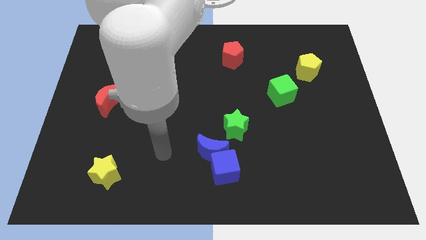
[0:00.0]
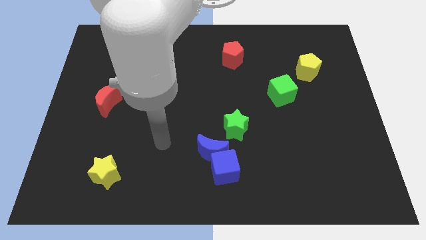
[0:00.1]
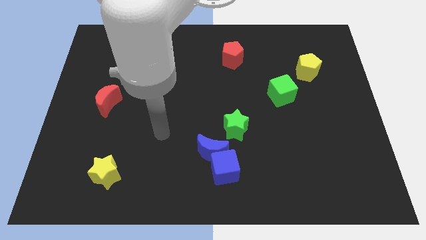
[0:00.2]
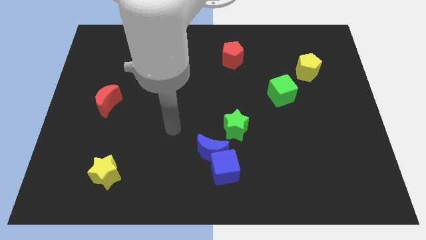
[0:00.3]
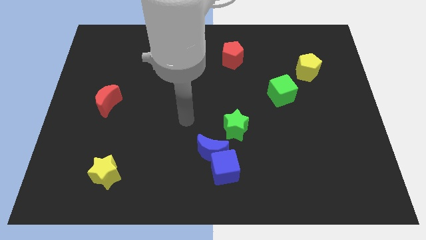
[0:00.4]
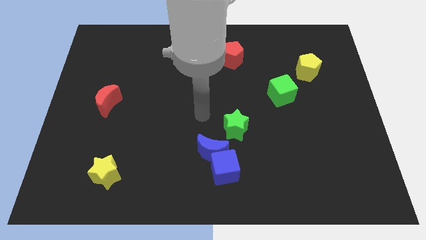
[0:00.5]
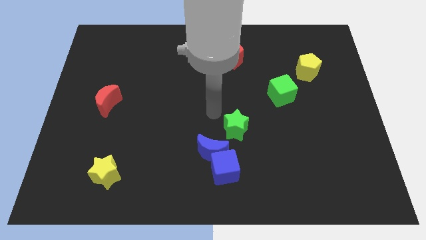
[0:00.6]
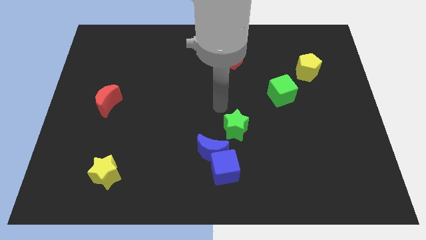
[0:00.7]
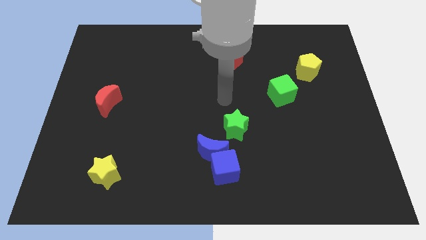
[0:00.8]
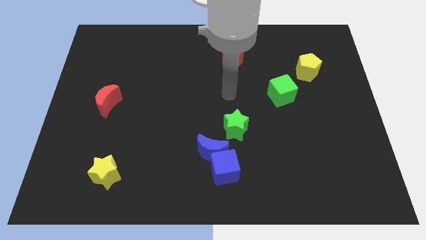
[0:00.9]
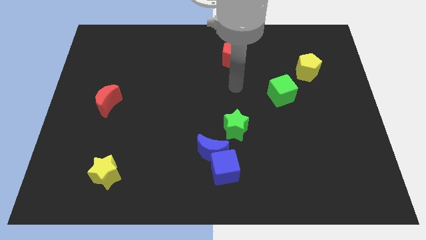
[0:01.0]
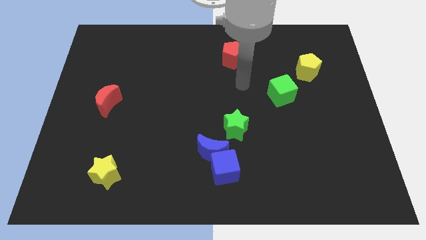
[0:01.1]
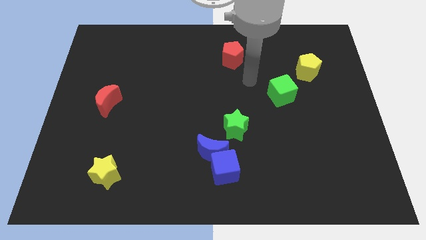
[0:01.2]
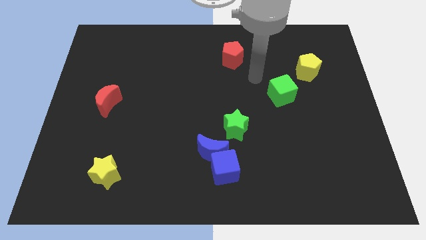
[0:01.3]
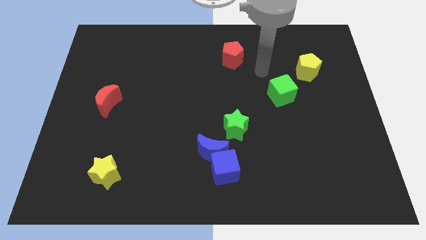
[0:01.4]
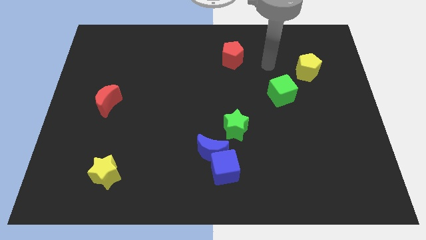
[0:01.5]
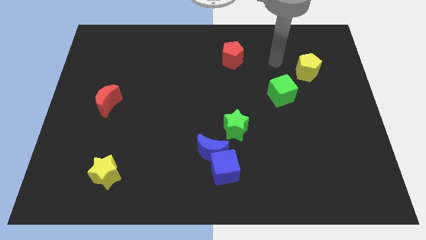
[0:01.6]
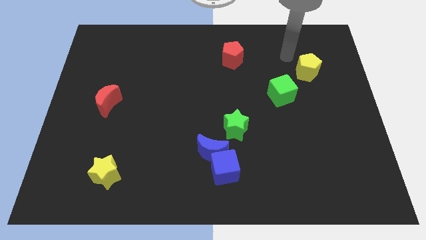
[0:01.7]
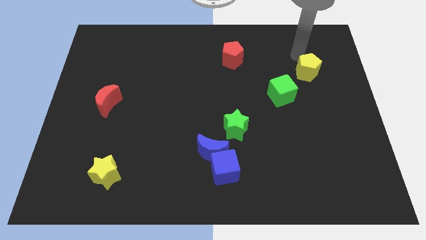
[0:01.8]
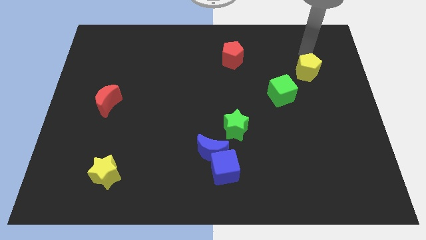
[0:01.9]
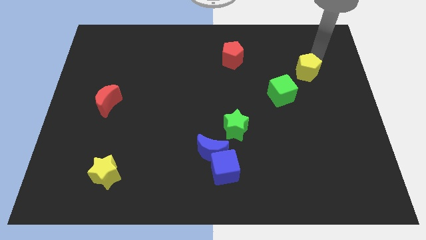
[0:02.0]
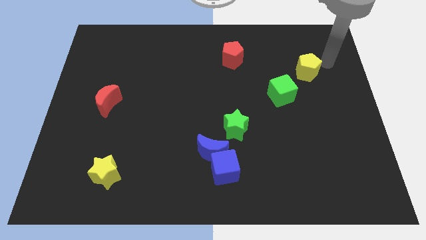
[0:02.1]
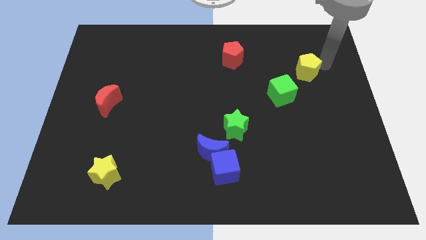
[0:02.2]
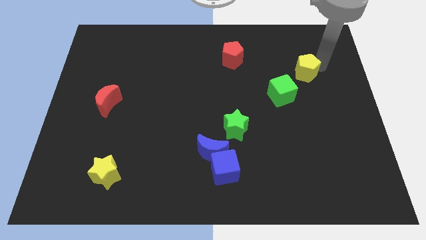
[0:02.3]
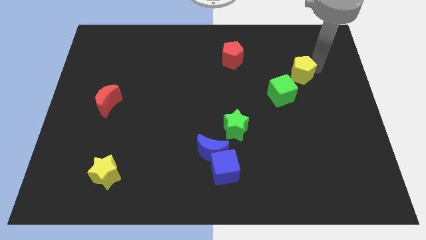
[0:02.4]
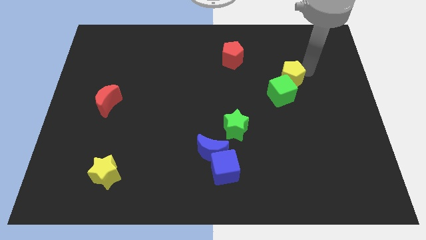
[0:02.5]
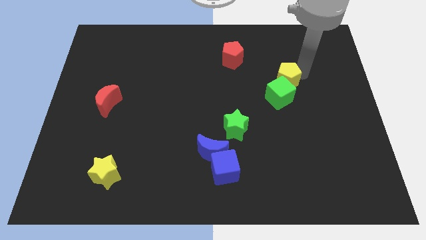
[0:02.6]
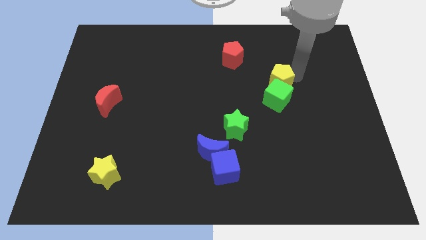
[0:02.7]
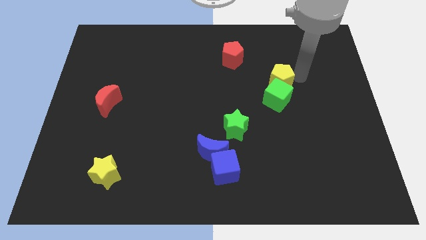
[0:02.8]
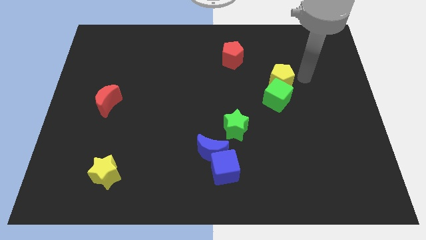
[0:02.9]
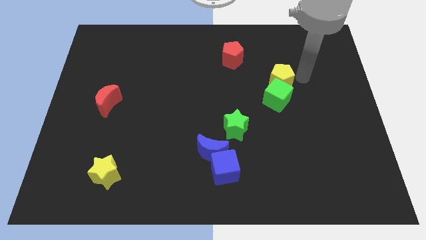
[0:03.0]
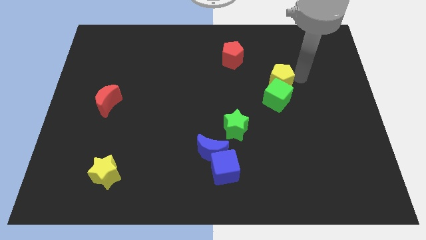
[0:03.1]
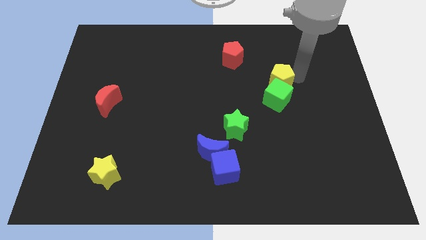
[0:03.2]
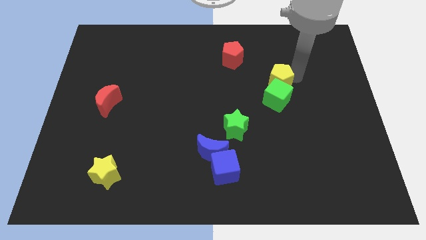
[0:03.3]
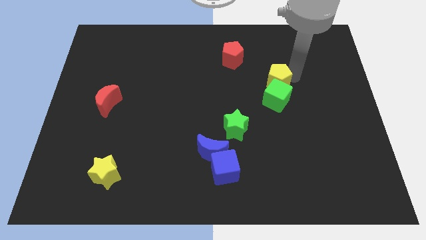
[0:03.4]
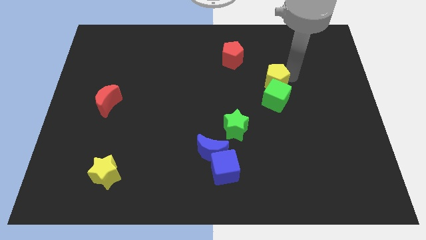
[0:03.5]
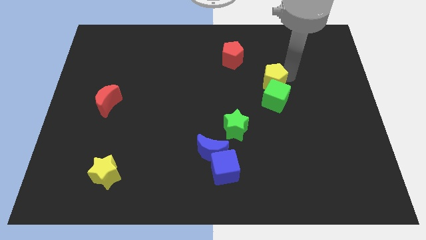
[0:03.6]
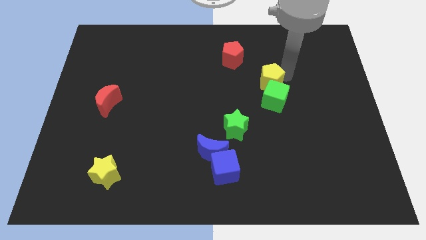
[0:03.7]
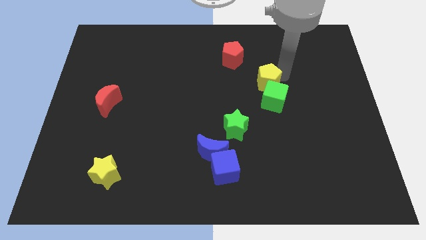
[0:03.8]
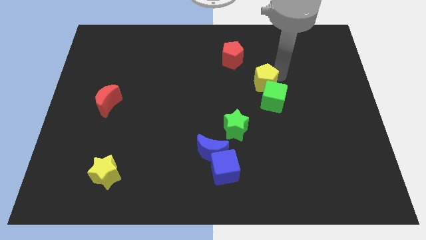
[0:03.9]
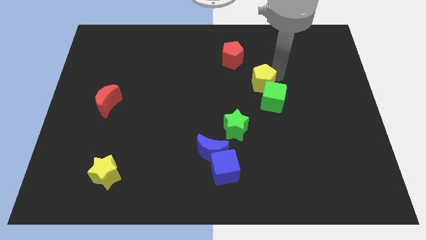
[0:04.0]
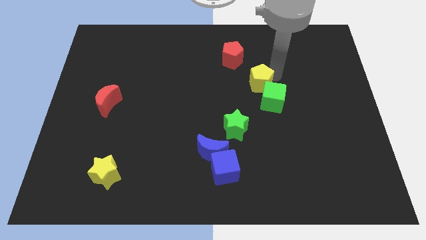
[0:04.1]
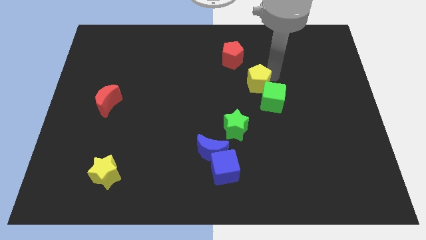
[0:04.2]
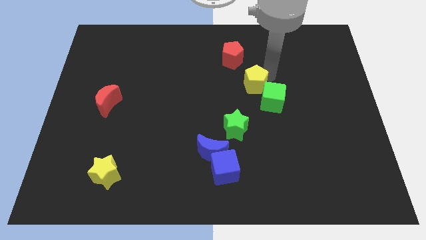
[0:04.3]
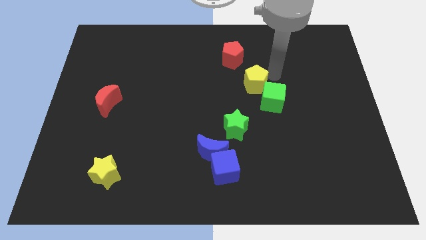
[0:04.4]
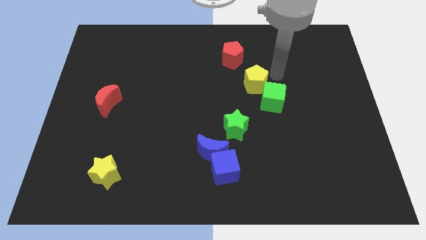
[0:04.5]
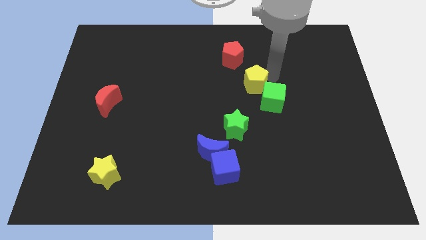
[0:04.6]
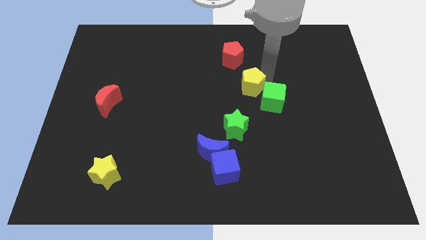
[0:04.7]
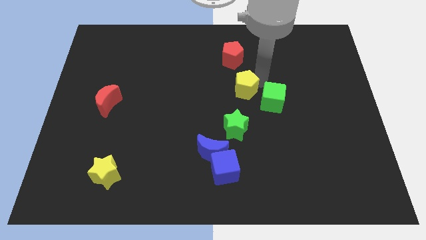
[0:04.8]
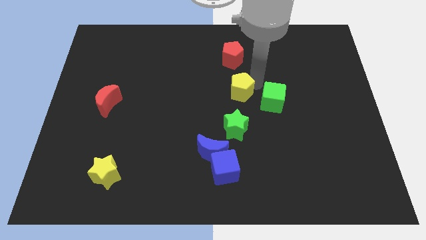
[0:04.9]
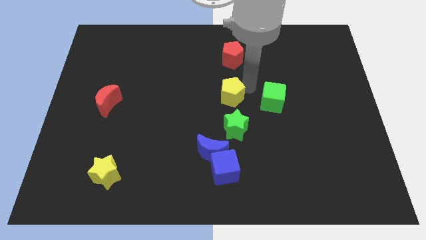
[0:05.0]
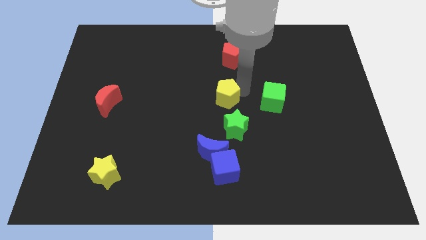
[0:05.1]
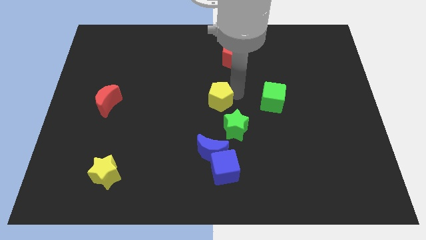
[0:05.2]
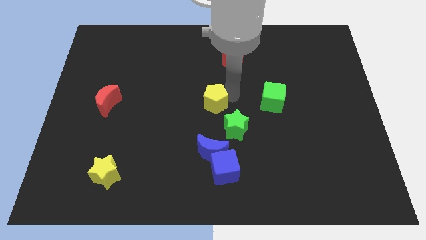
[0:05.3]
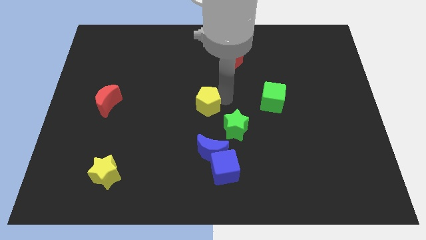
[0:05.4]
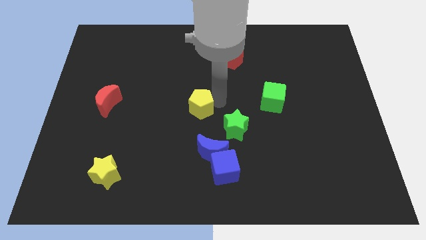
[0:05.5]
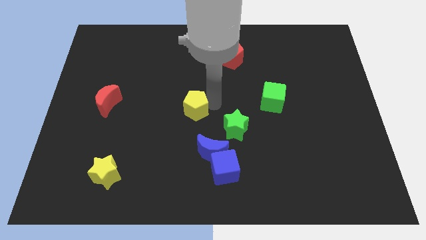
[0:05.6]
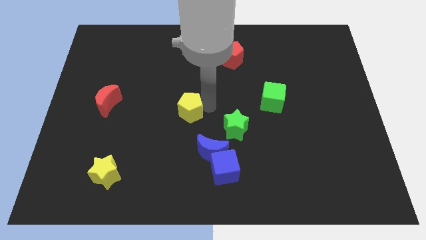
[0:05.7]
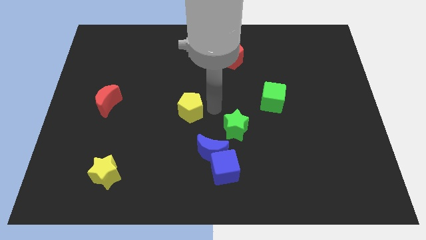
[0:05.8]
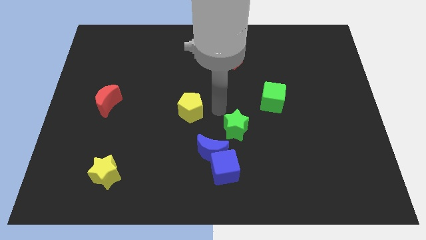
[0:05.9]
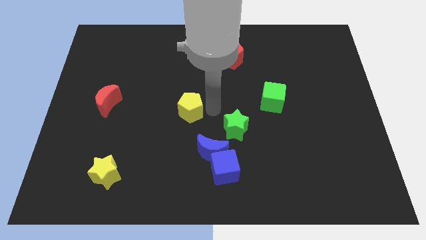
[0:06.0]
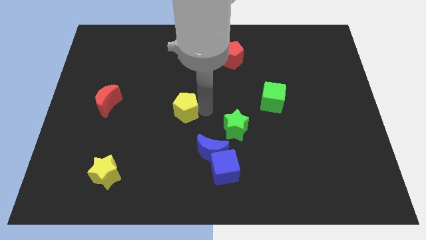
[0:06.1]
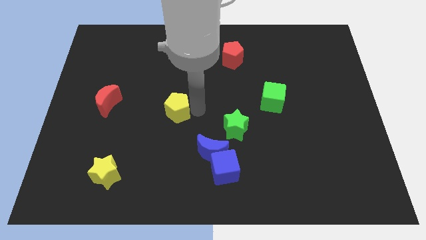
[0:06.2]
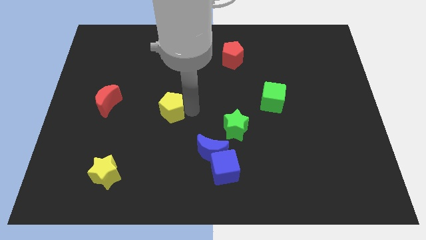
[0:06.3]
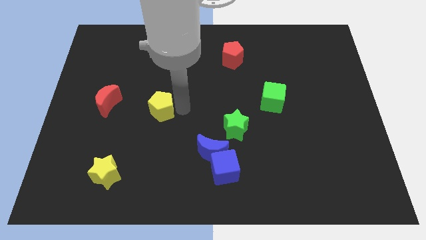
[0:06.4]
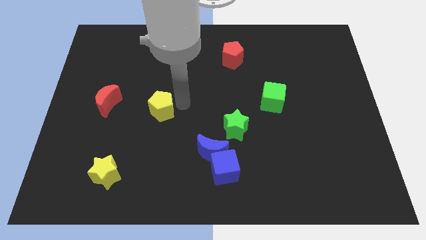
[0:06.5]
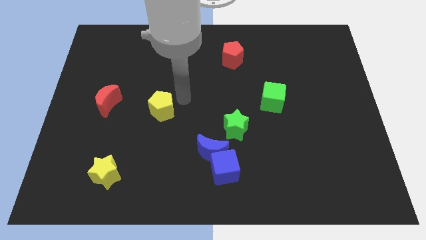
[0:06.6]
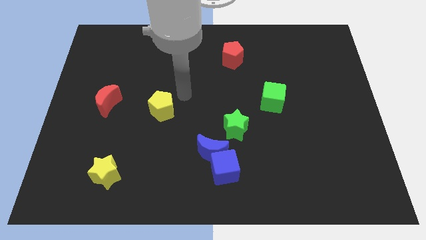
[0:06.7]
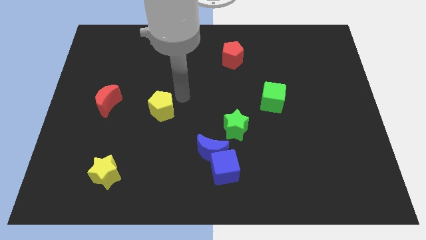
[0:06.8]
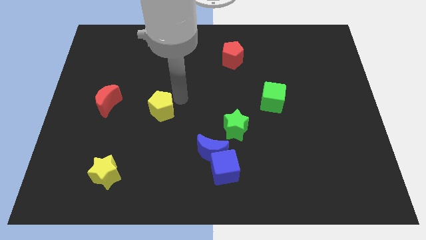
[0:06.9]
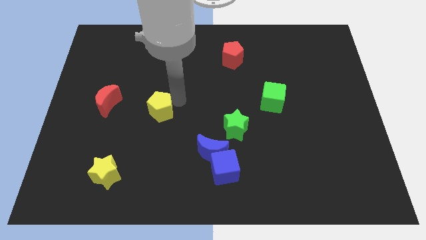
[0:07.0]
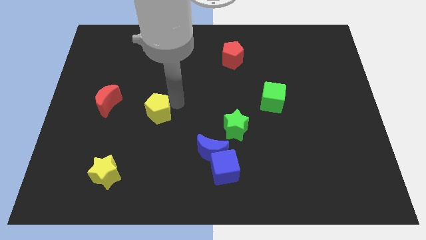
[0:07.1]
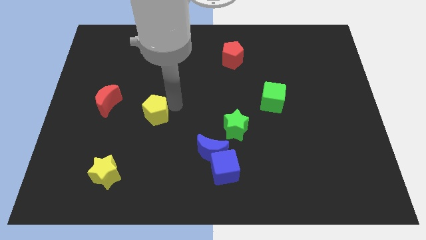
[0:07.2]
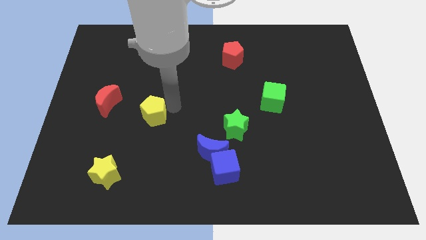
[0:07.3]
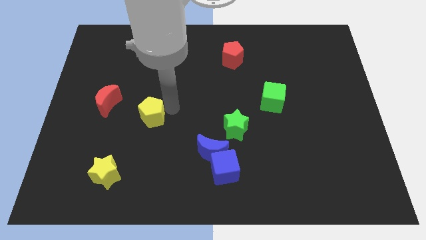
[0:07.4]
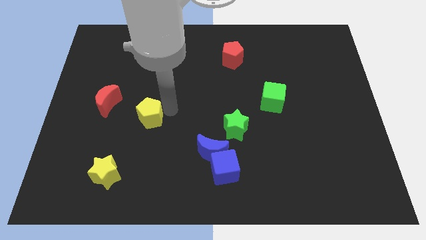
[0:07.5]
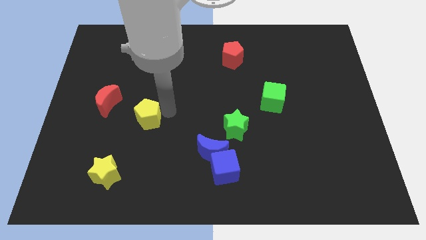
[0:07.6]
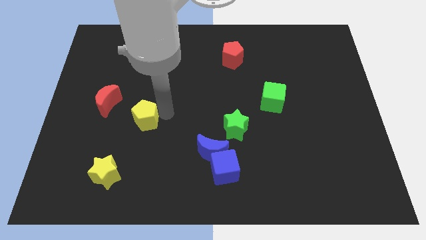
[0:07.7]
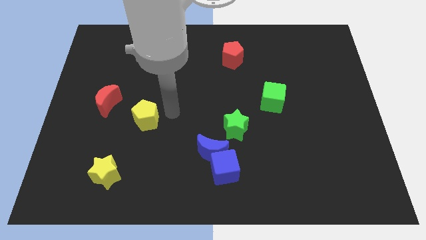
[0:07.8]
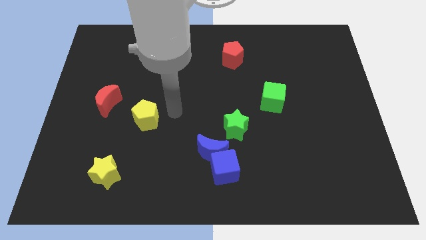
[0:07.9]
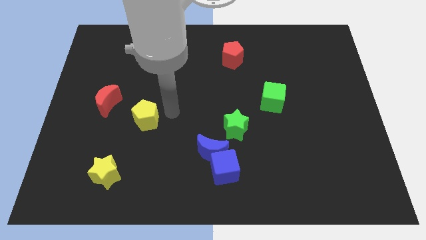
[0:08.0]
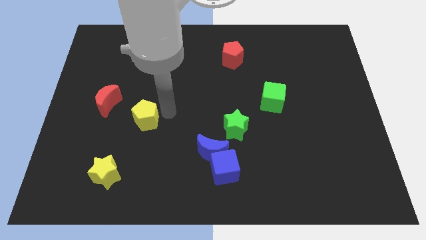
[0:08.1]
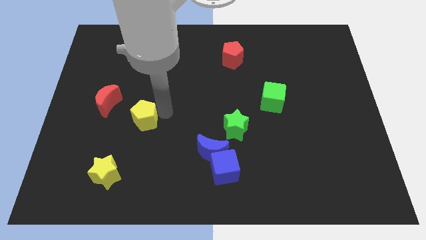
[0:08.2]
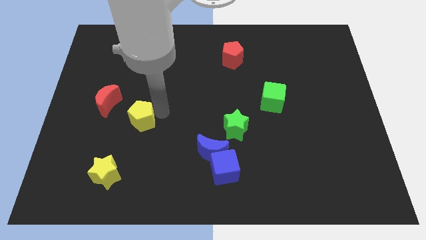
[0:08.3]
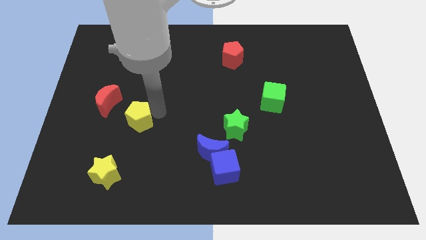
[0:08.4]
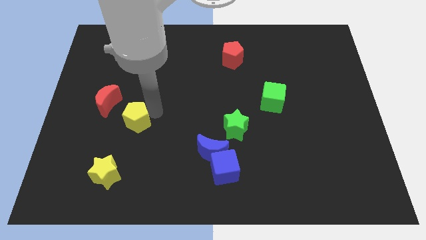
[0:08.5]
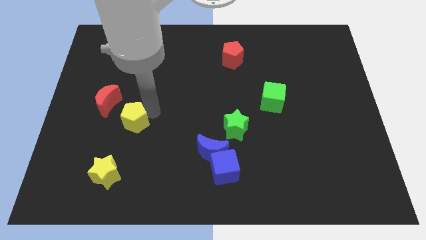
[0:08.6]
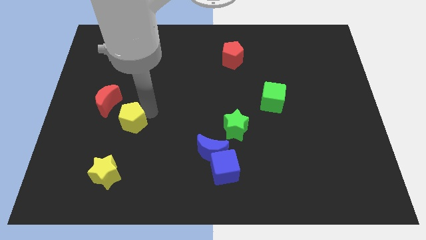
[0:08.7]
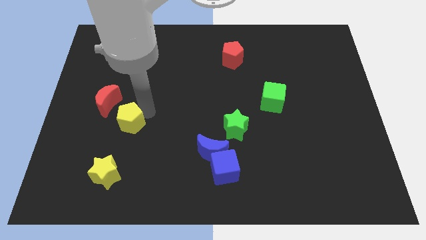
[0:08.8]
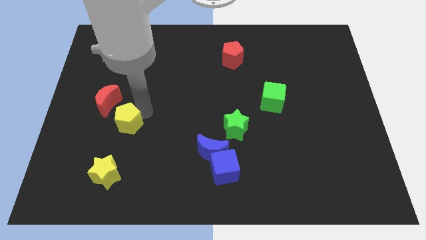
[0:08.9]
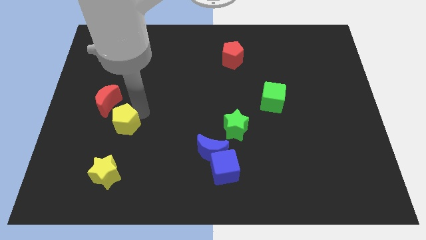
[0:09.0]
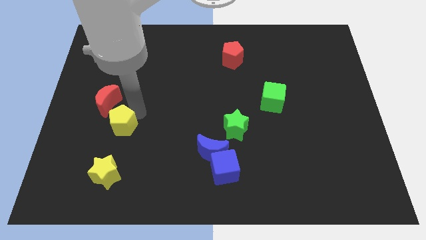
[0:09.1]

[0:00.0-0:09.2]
move the yellow pentagon below the red moon
